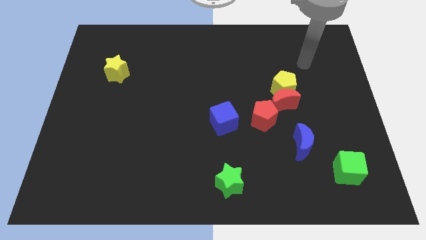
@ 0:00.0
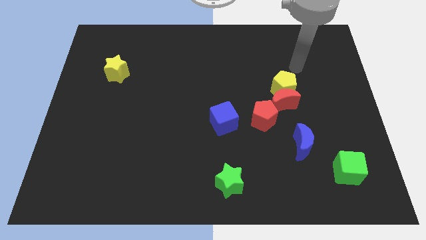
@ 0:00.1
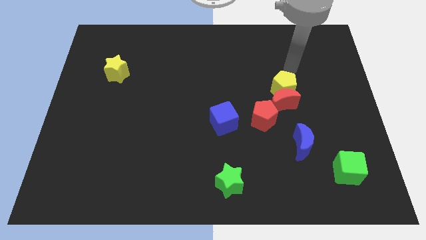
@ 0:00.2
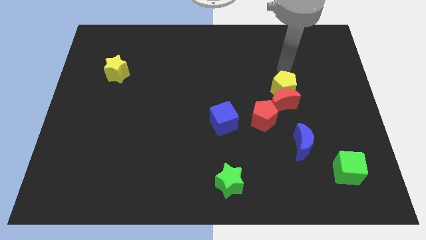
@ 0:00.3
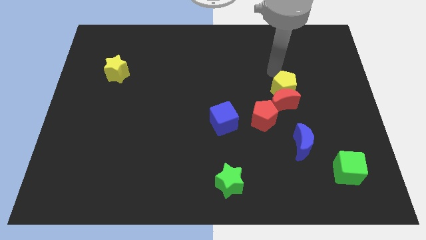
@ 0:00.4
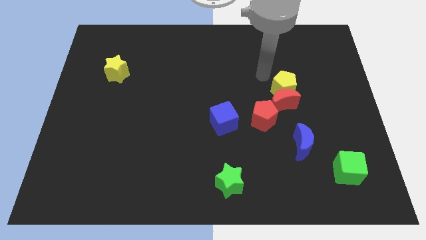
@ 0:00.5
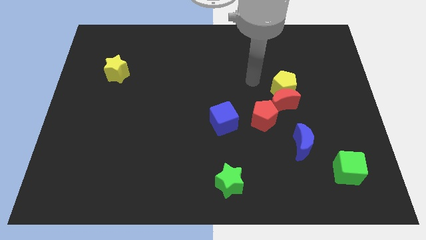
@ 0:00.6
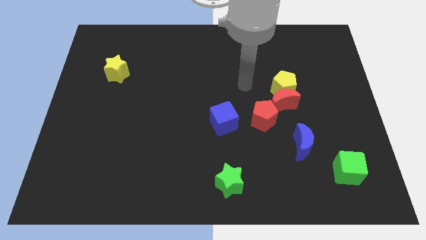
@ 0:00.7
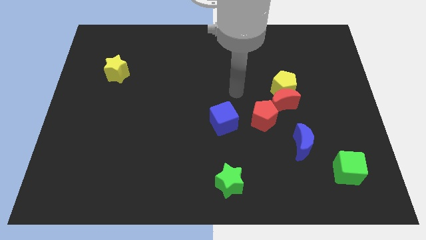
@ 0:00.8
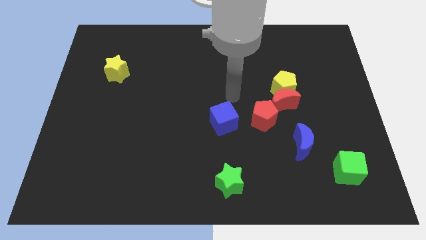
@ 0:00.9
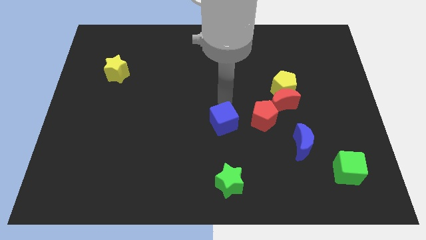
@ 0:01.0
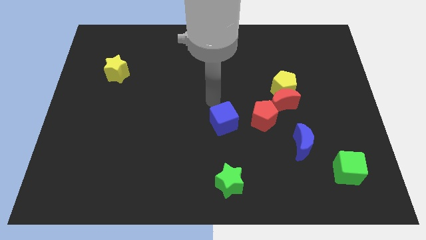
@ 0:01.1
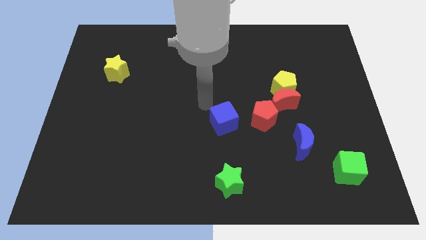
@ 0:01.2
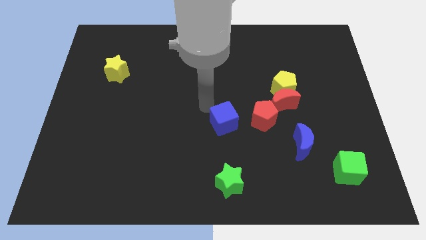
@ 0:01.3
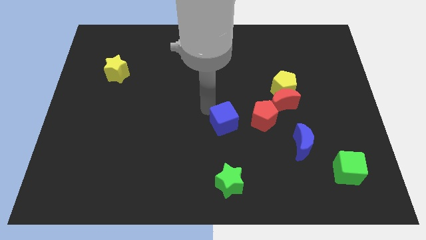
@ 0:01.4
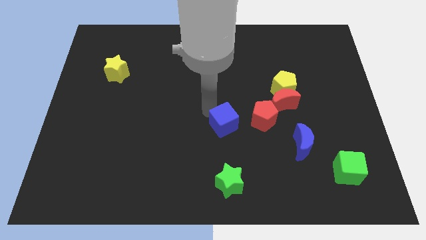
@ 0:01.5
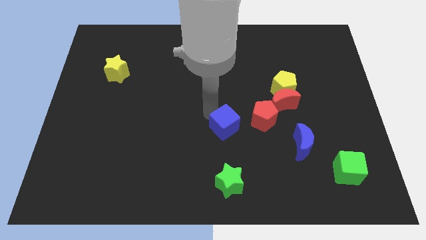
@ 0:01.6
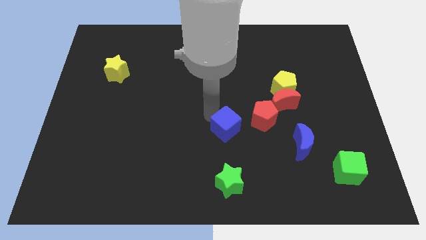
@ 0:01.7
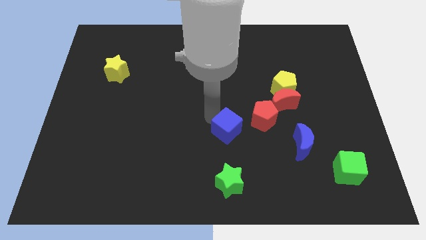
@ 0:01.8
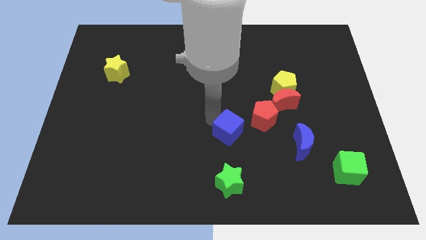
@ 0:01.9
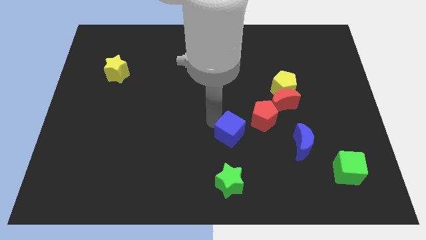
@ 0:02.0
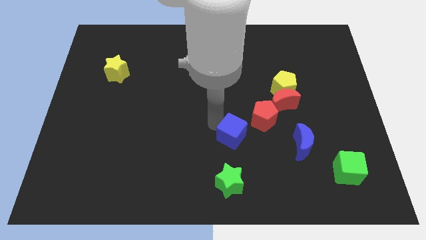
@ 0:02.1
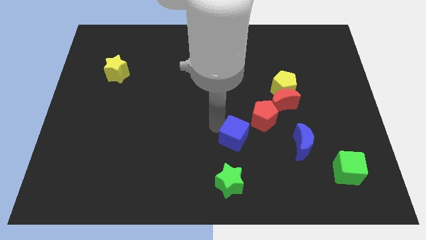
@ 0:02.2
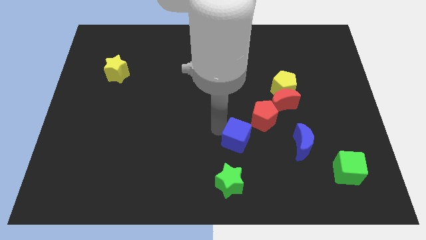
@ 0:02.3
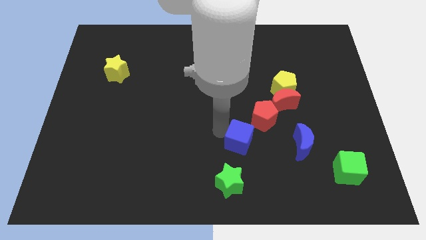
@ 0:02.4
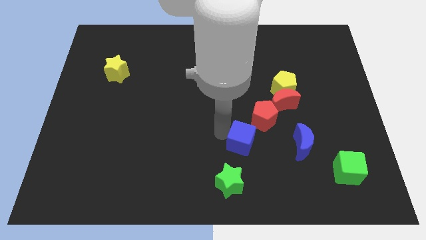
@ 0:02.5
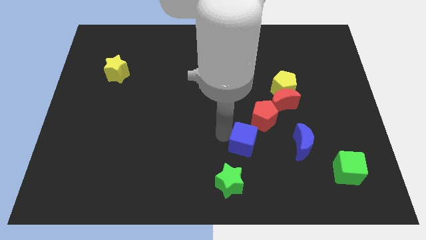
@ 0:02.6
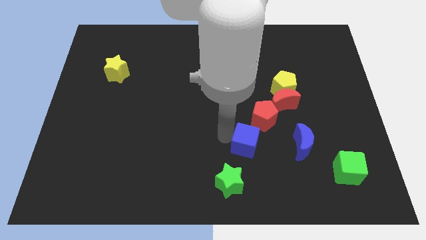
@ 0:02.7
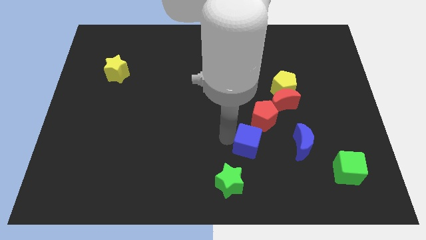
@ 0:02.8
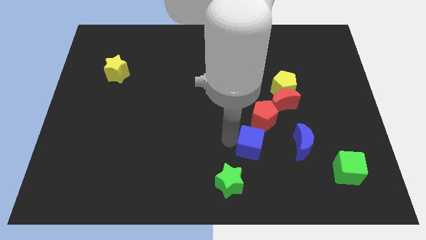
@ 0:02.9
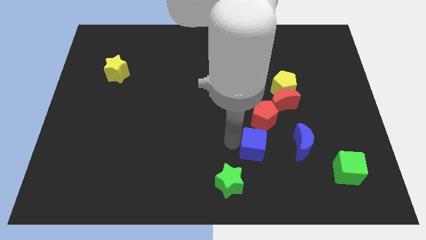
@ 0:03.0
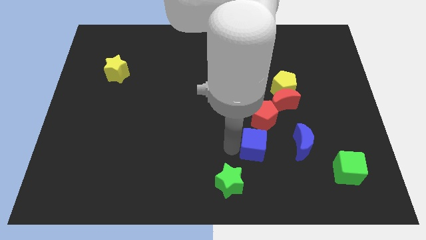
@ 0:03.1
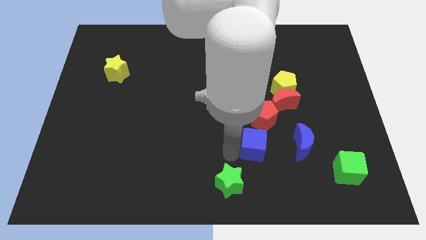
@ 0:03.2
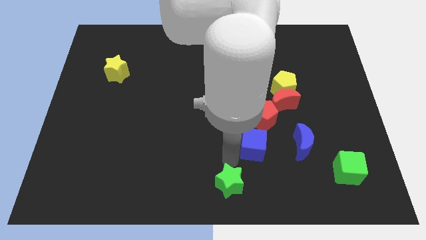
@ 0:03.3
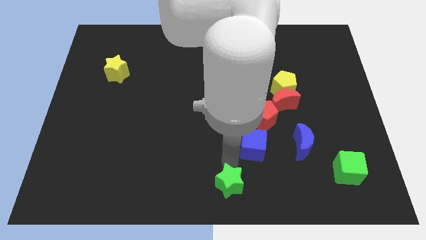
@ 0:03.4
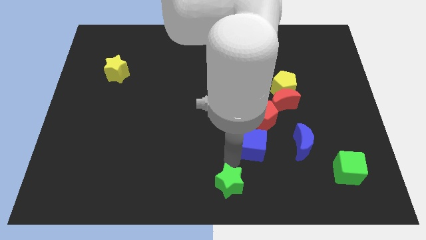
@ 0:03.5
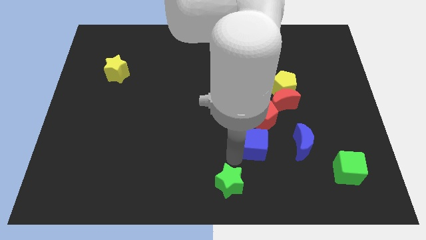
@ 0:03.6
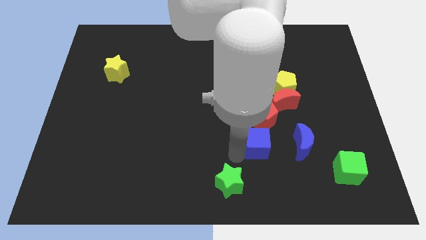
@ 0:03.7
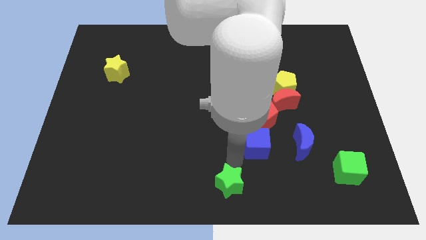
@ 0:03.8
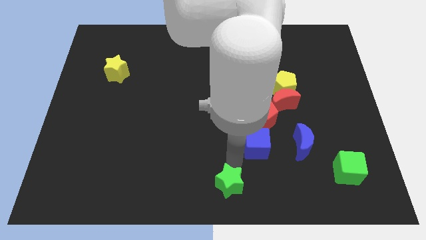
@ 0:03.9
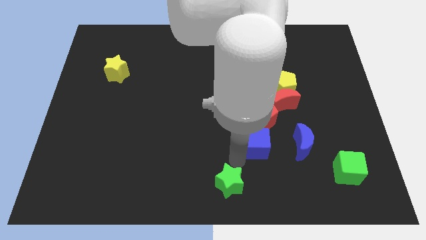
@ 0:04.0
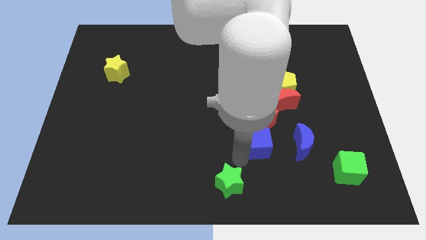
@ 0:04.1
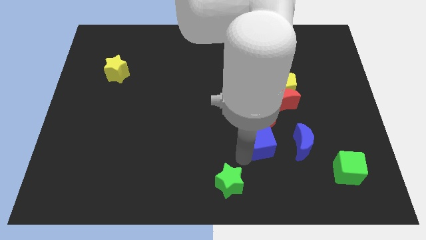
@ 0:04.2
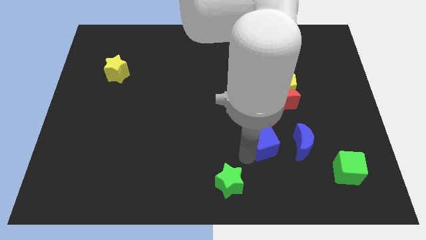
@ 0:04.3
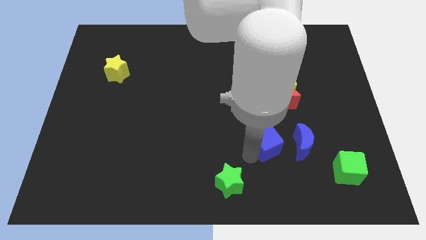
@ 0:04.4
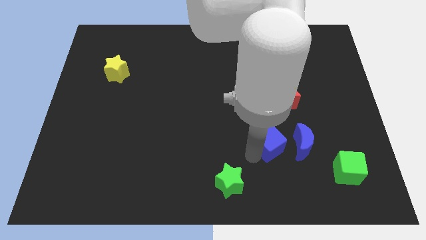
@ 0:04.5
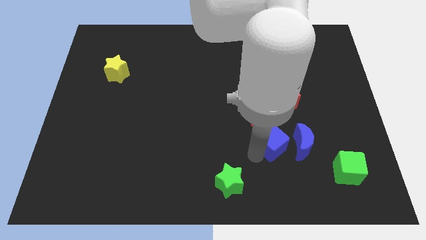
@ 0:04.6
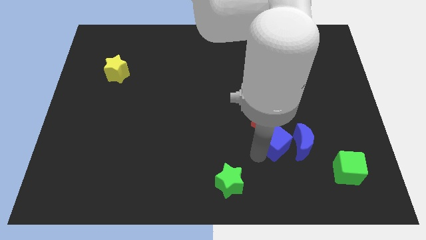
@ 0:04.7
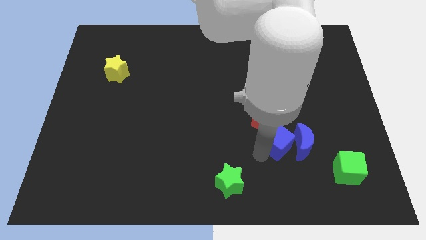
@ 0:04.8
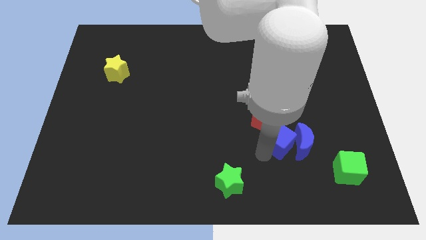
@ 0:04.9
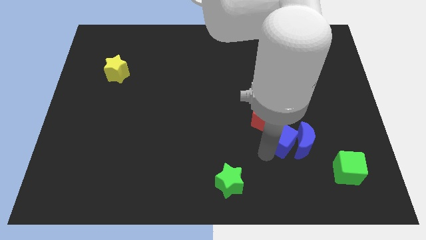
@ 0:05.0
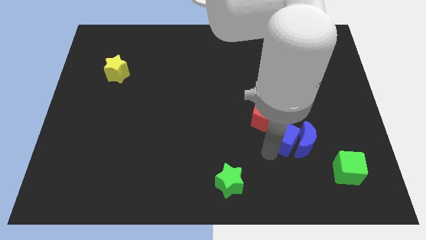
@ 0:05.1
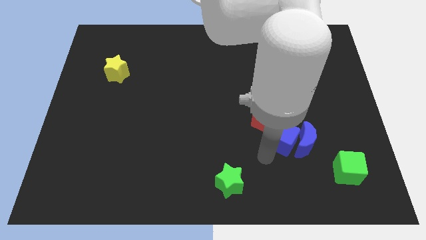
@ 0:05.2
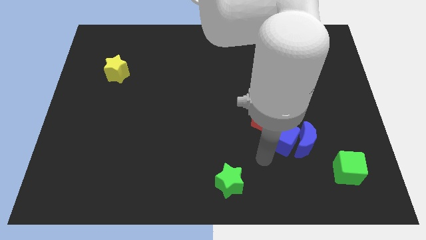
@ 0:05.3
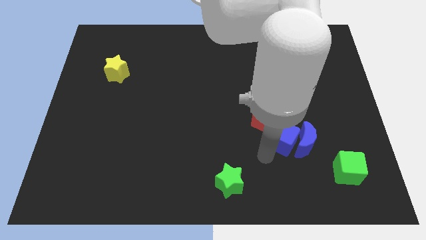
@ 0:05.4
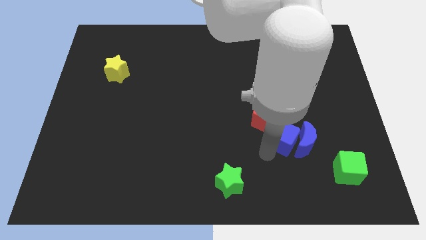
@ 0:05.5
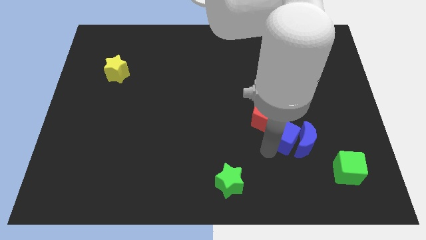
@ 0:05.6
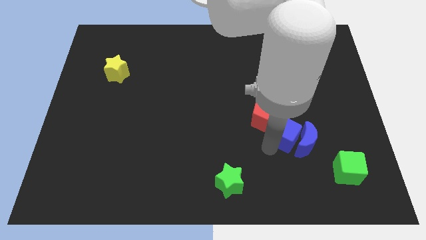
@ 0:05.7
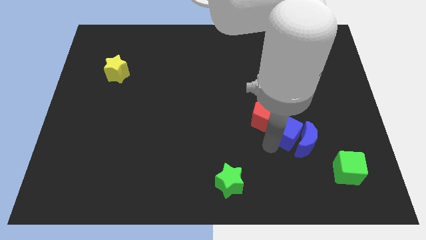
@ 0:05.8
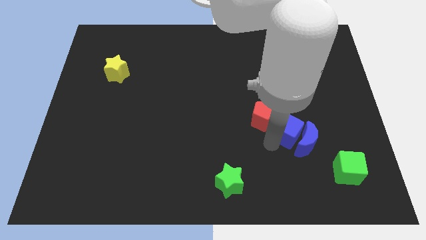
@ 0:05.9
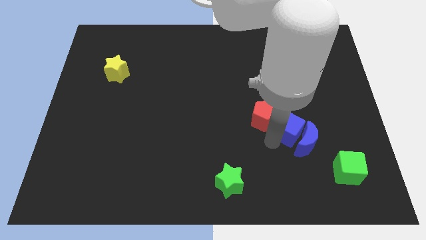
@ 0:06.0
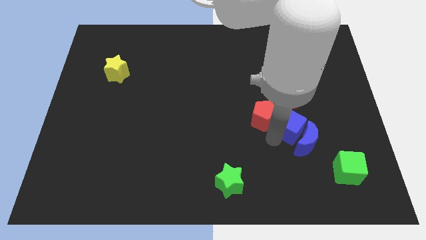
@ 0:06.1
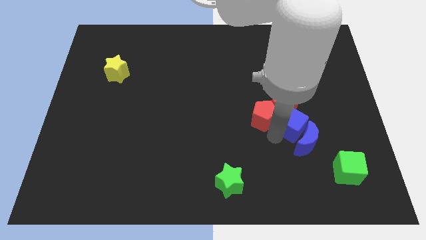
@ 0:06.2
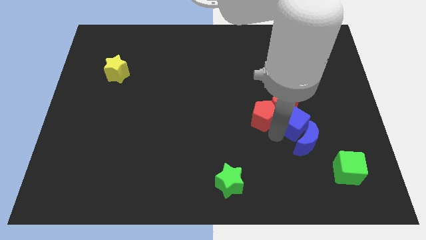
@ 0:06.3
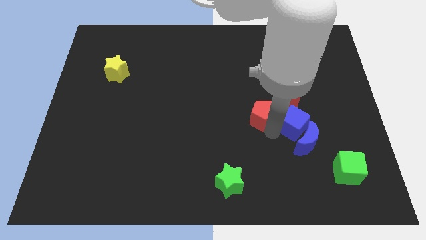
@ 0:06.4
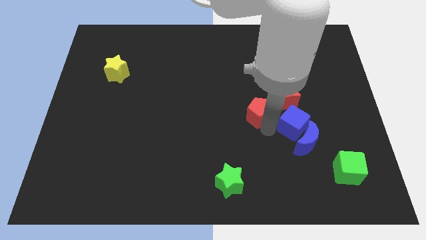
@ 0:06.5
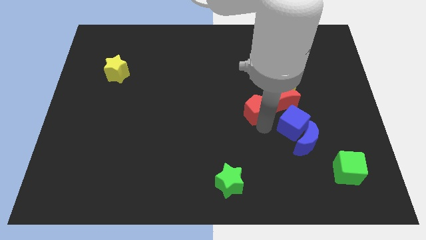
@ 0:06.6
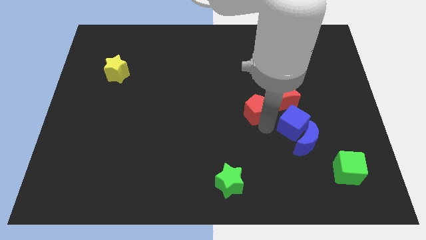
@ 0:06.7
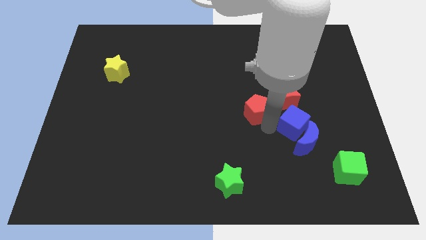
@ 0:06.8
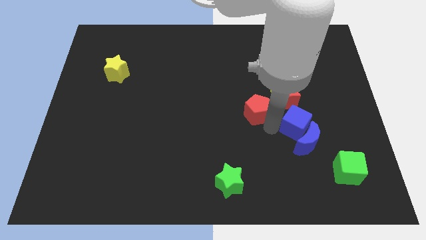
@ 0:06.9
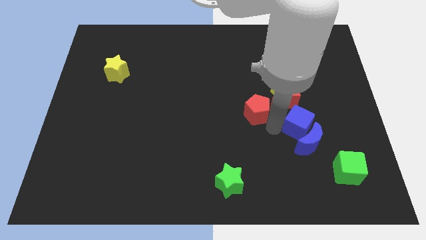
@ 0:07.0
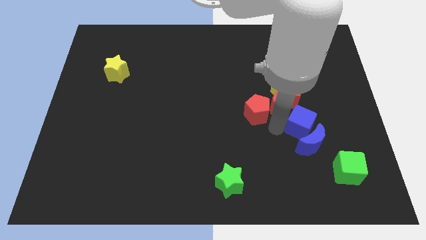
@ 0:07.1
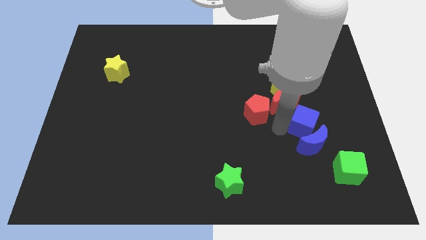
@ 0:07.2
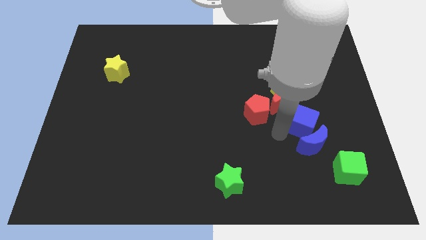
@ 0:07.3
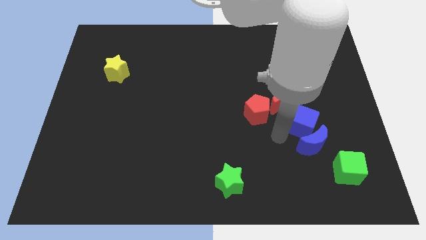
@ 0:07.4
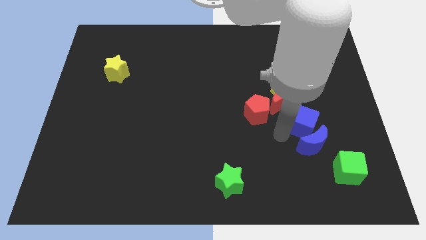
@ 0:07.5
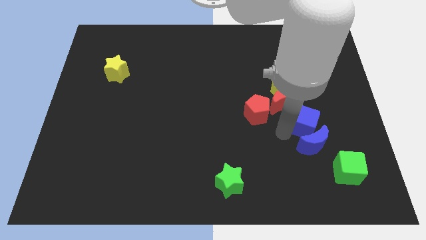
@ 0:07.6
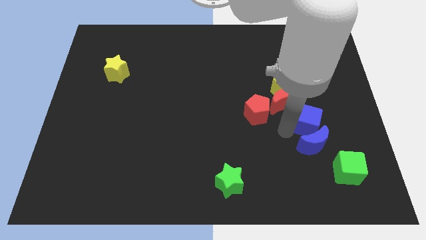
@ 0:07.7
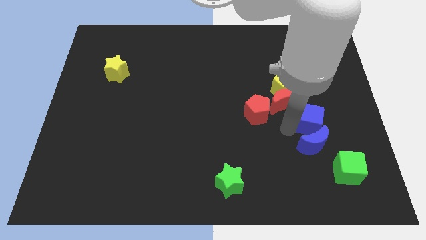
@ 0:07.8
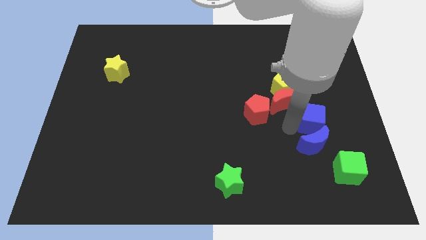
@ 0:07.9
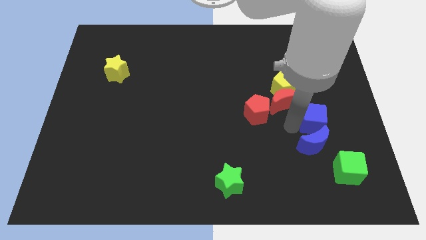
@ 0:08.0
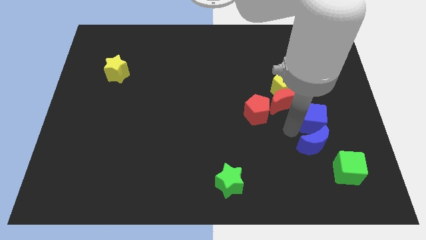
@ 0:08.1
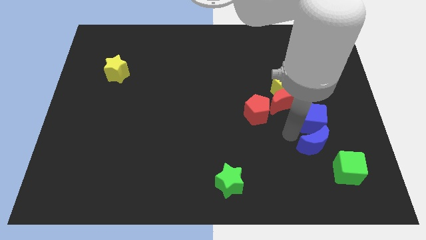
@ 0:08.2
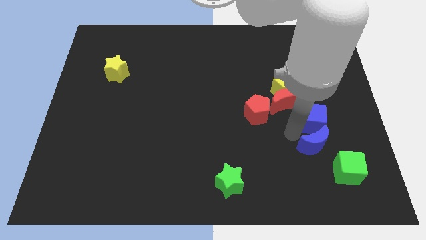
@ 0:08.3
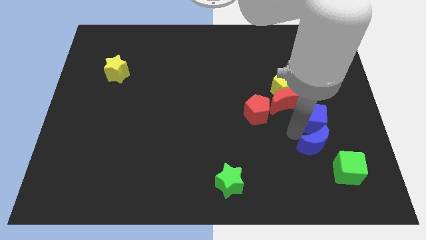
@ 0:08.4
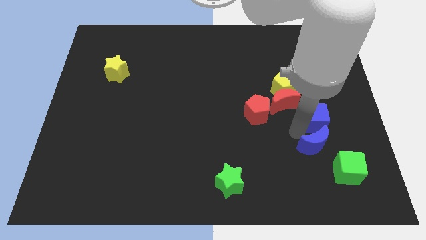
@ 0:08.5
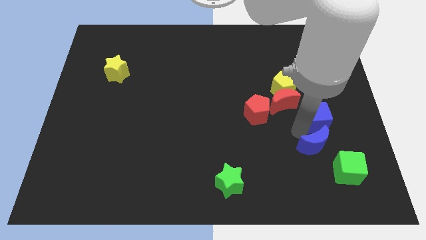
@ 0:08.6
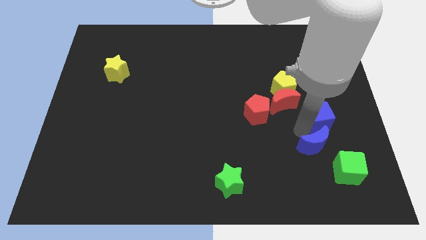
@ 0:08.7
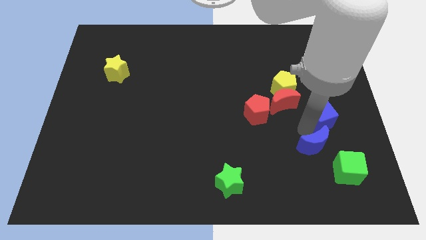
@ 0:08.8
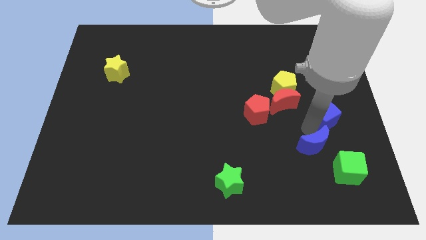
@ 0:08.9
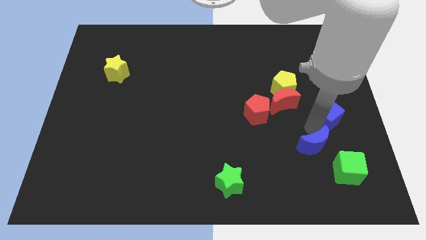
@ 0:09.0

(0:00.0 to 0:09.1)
push the blue cube to the right side
